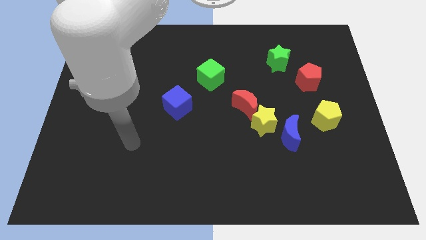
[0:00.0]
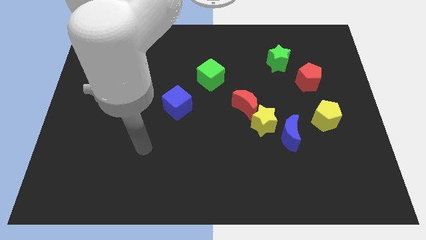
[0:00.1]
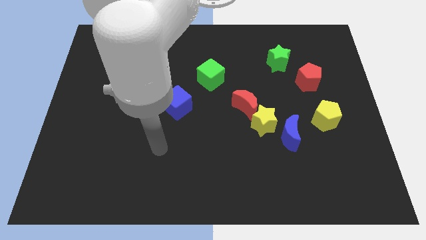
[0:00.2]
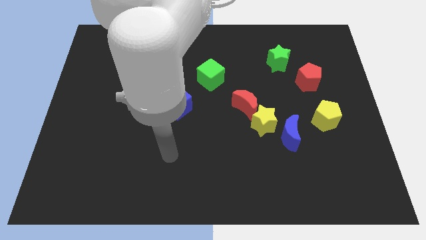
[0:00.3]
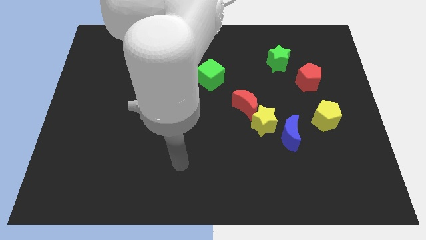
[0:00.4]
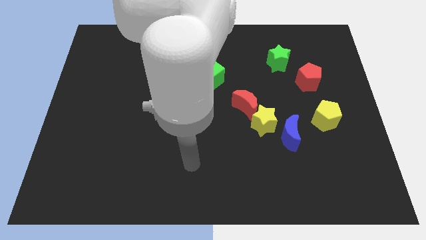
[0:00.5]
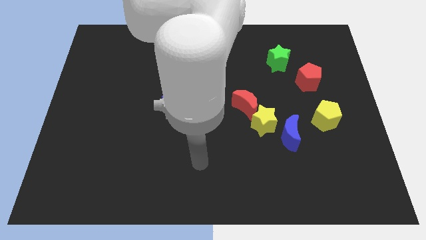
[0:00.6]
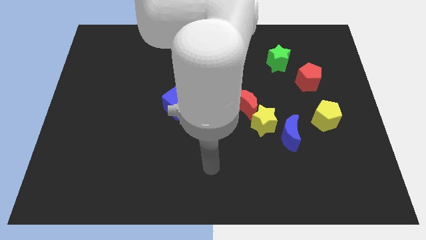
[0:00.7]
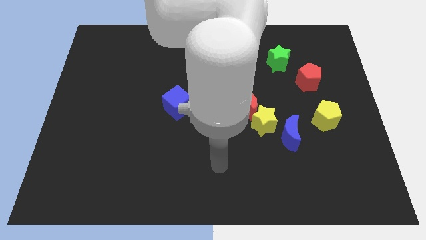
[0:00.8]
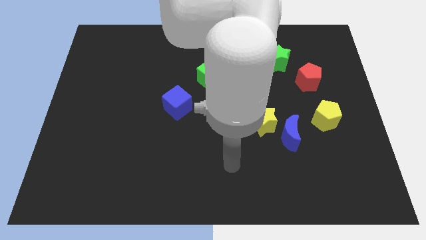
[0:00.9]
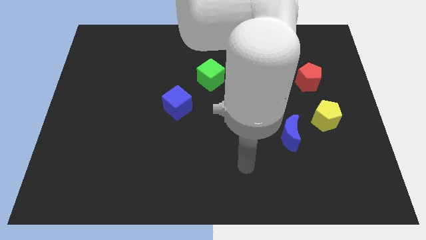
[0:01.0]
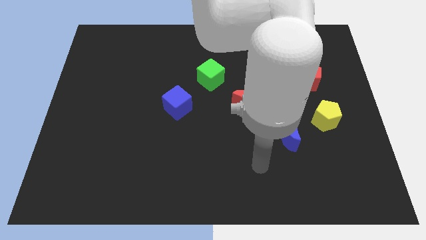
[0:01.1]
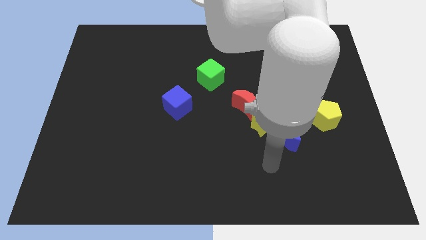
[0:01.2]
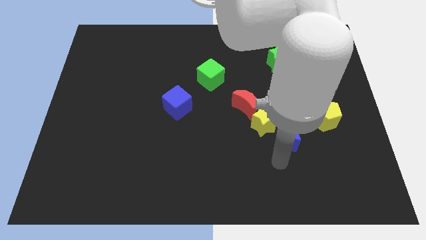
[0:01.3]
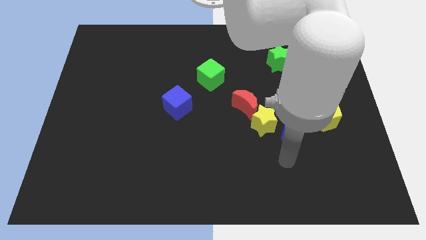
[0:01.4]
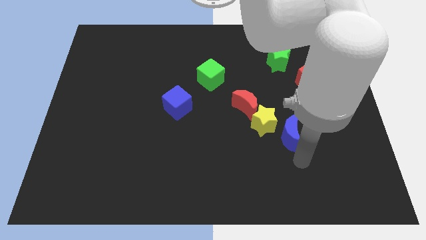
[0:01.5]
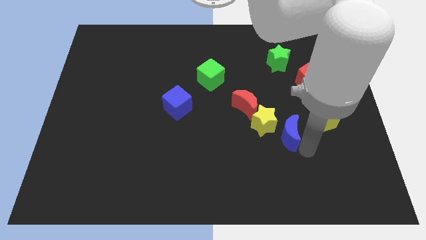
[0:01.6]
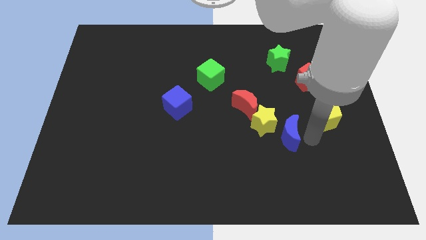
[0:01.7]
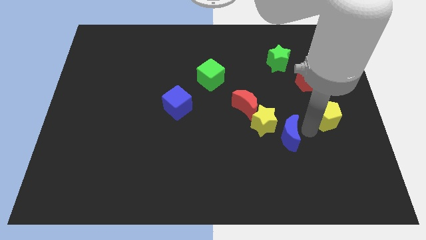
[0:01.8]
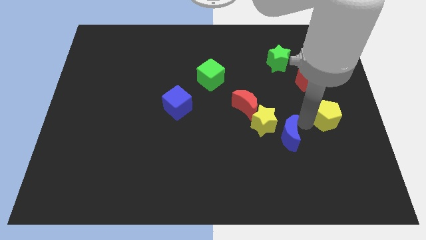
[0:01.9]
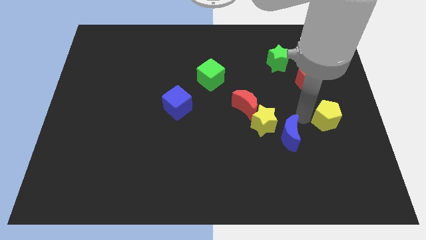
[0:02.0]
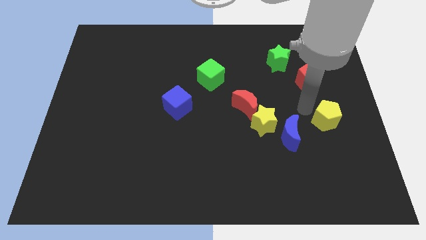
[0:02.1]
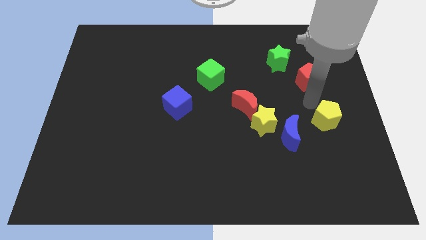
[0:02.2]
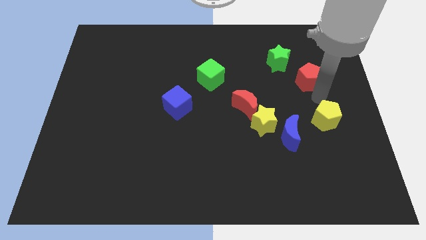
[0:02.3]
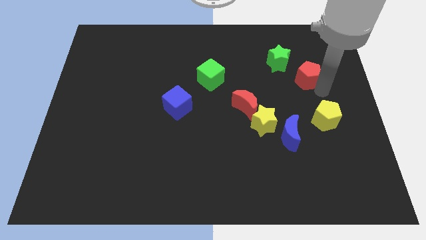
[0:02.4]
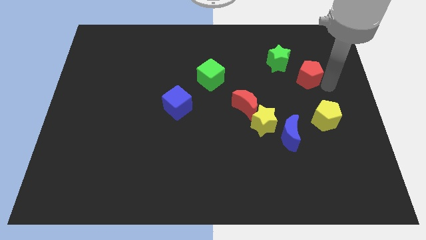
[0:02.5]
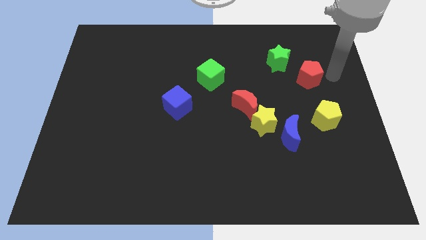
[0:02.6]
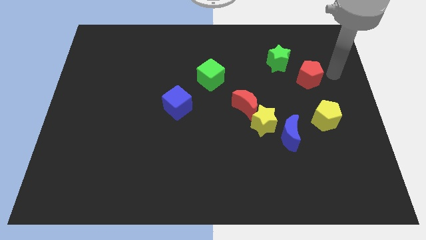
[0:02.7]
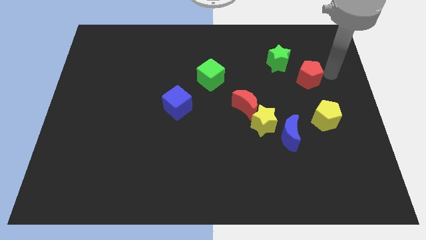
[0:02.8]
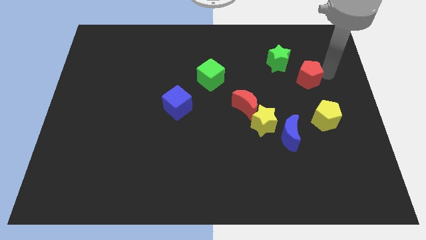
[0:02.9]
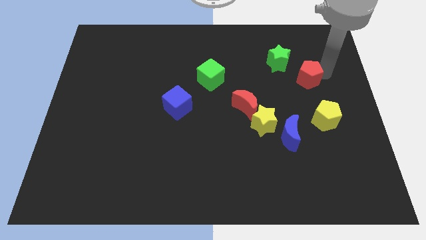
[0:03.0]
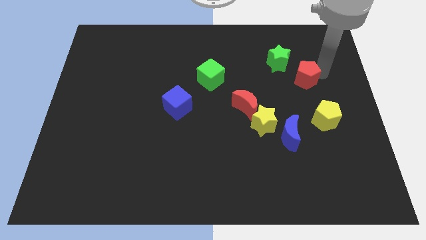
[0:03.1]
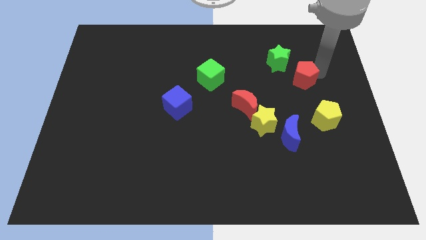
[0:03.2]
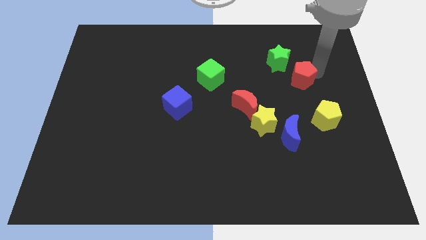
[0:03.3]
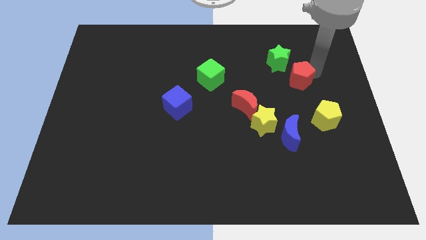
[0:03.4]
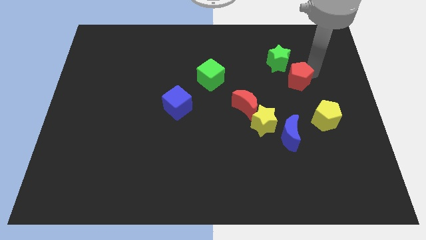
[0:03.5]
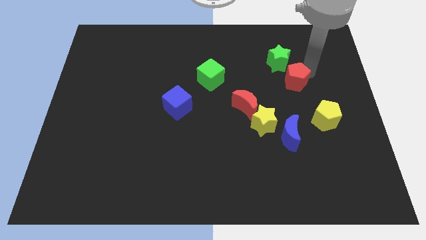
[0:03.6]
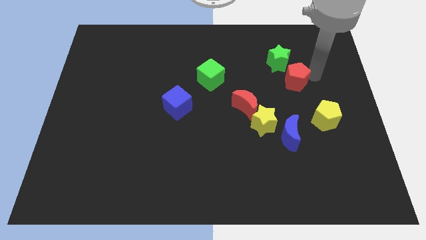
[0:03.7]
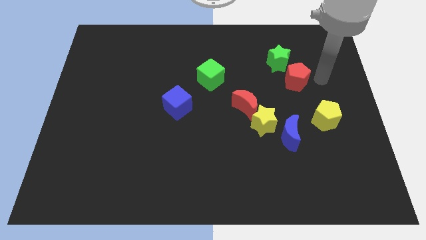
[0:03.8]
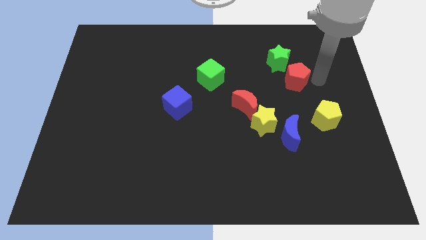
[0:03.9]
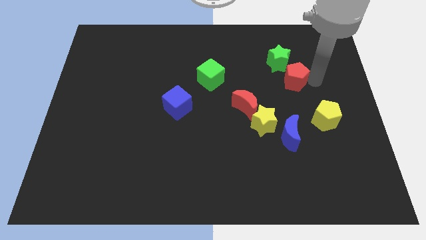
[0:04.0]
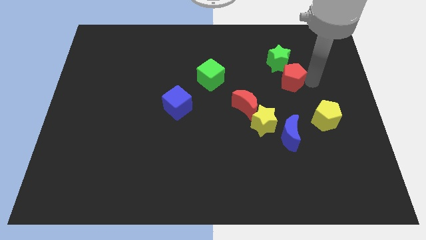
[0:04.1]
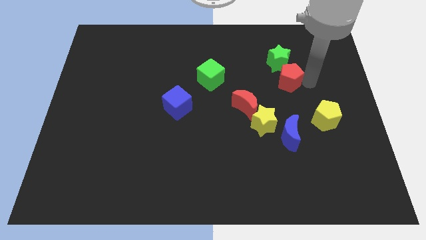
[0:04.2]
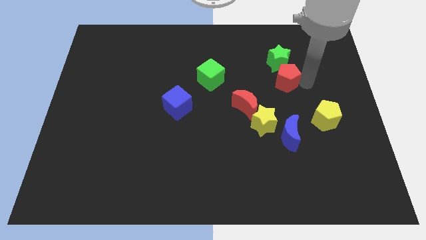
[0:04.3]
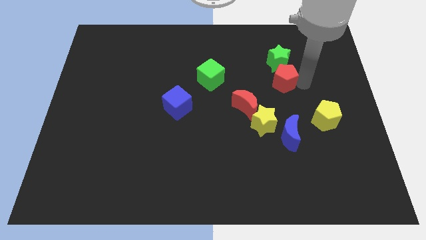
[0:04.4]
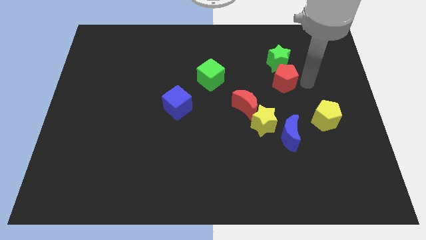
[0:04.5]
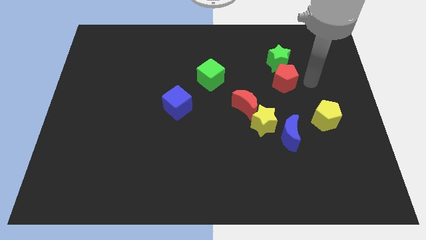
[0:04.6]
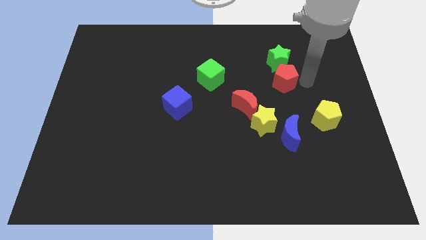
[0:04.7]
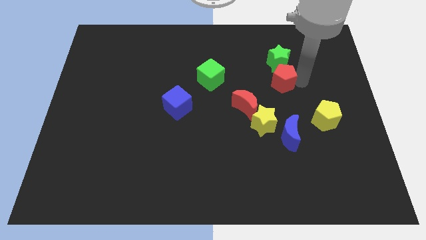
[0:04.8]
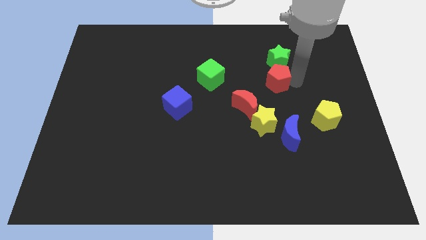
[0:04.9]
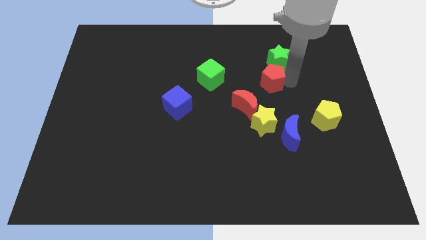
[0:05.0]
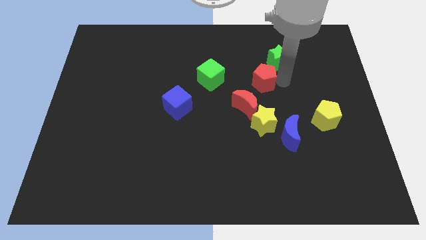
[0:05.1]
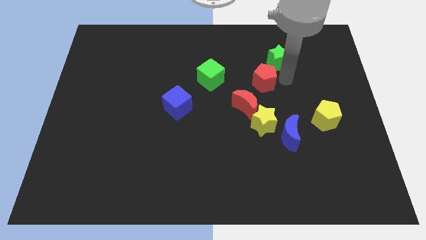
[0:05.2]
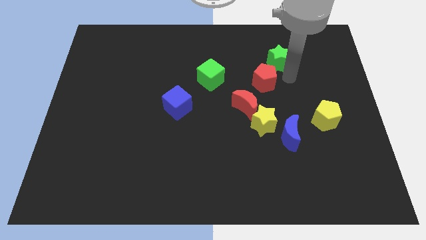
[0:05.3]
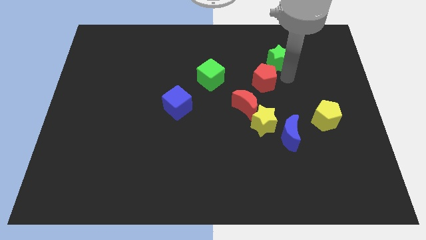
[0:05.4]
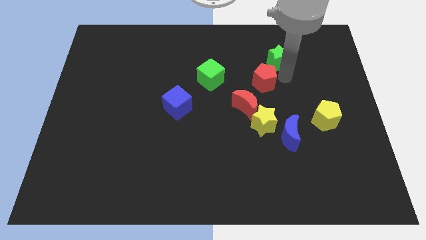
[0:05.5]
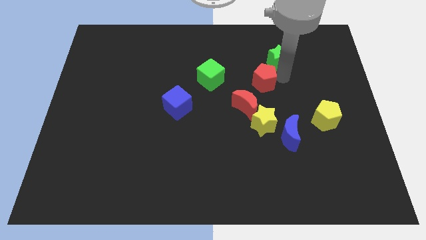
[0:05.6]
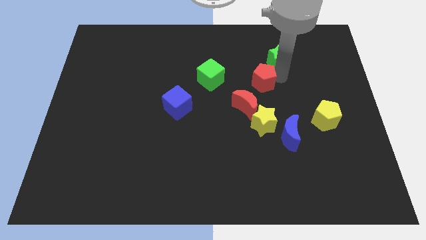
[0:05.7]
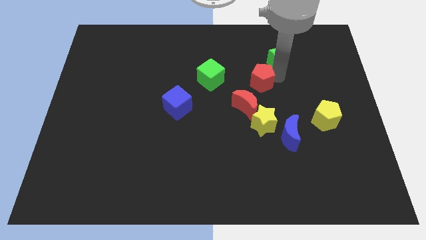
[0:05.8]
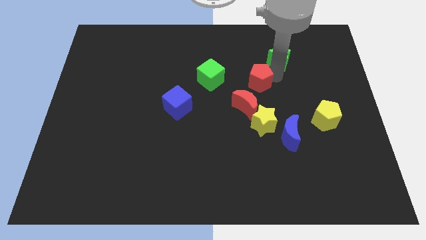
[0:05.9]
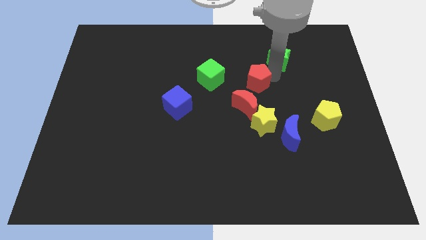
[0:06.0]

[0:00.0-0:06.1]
move the red pentagon to the center
